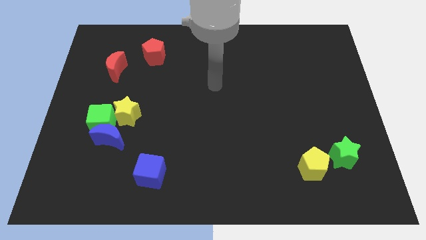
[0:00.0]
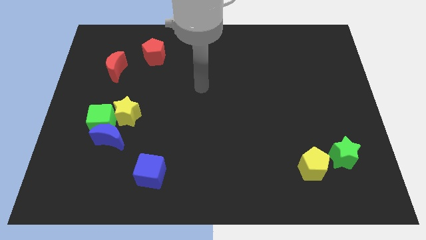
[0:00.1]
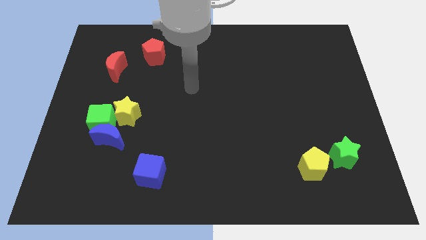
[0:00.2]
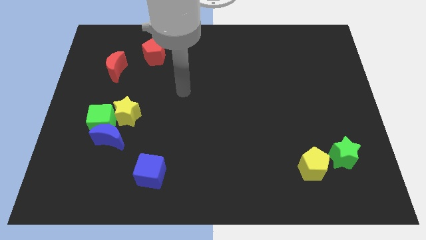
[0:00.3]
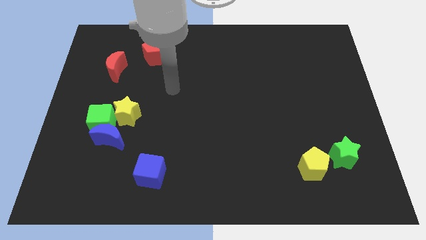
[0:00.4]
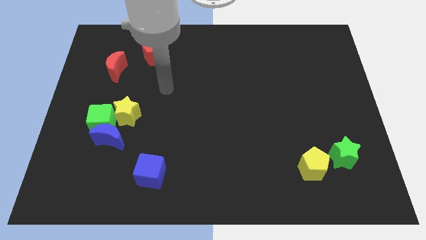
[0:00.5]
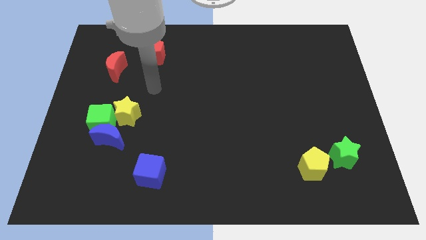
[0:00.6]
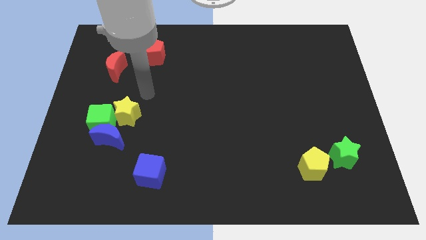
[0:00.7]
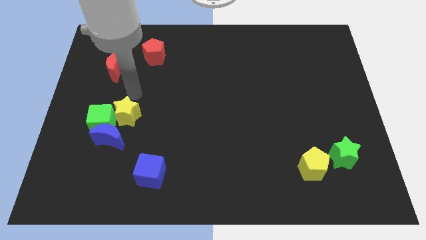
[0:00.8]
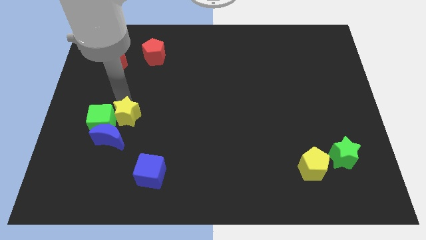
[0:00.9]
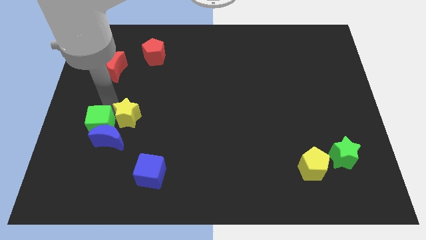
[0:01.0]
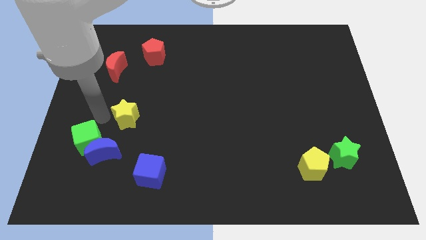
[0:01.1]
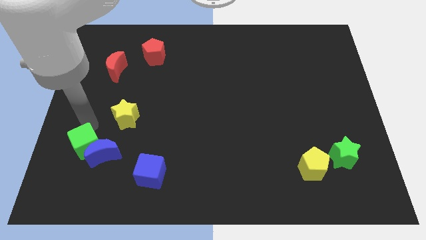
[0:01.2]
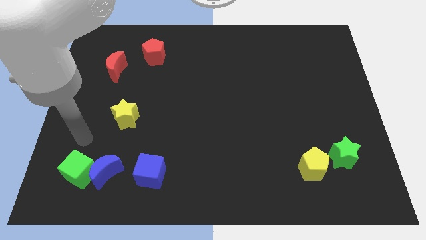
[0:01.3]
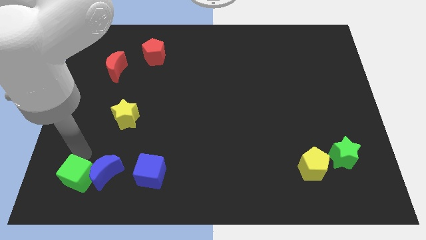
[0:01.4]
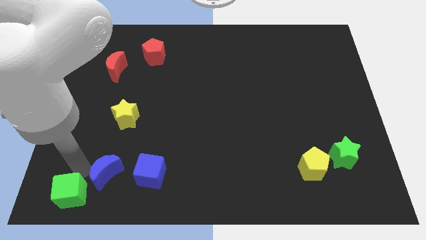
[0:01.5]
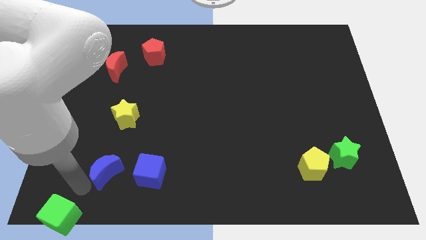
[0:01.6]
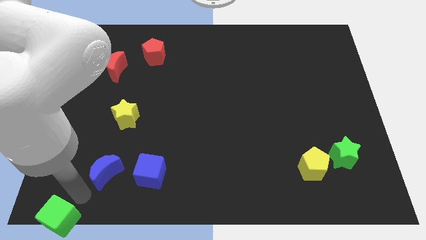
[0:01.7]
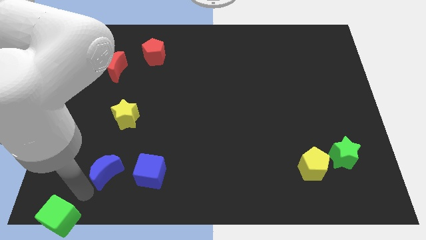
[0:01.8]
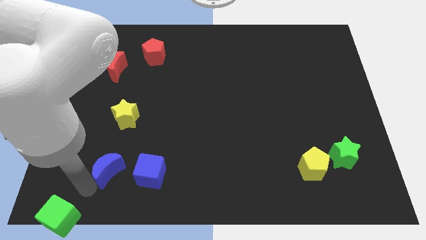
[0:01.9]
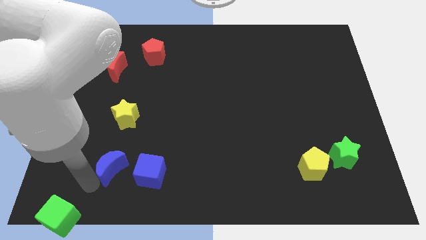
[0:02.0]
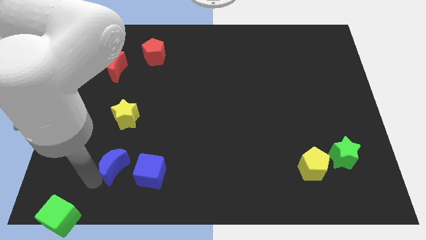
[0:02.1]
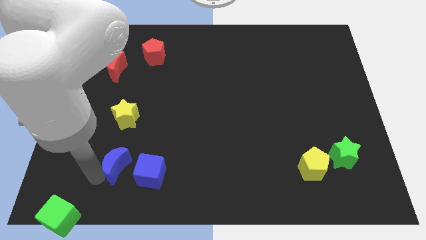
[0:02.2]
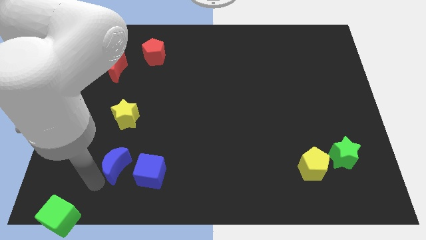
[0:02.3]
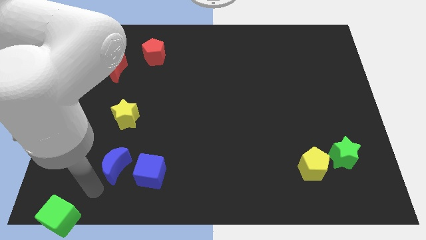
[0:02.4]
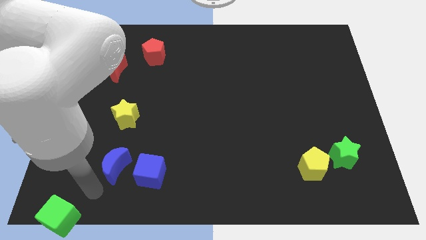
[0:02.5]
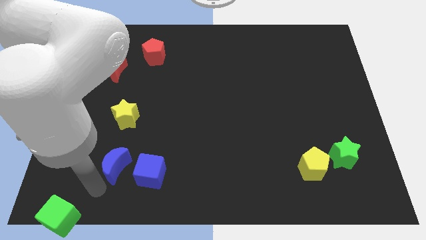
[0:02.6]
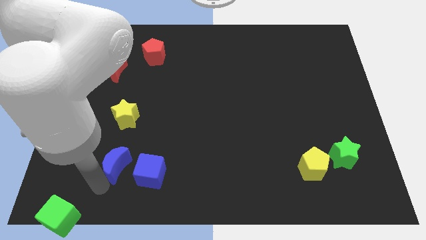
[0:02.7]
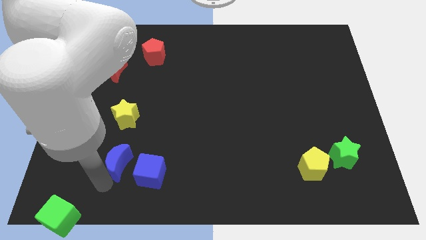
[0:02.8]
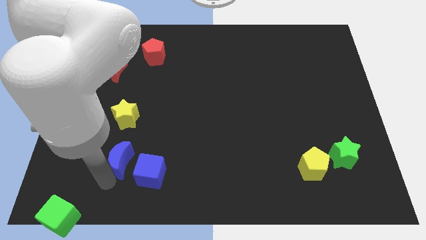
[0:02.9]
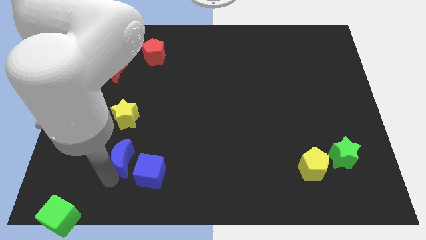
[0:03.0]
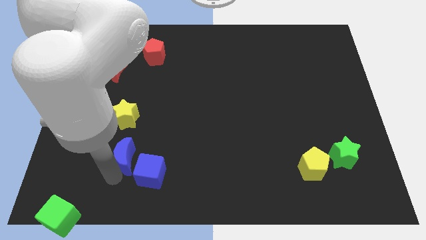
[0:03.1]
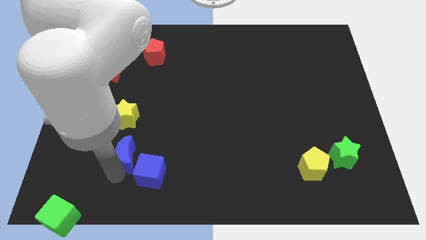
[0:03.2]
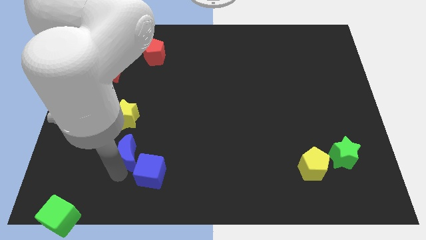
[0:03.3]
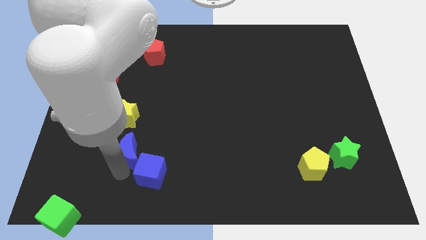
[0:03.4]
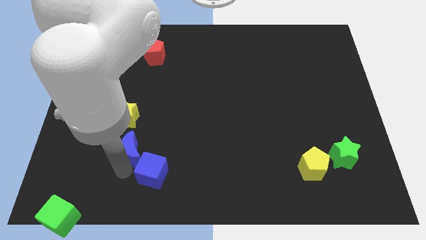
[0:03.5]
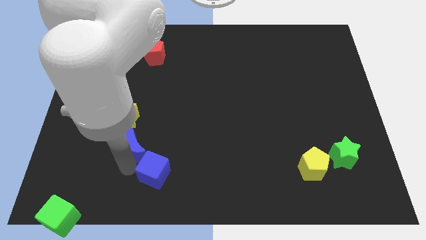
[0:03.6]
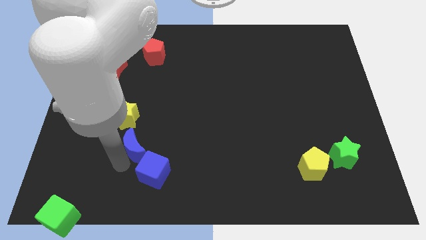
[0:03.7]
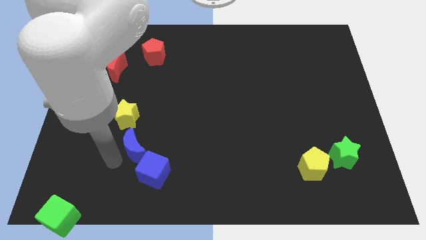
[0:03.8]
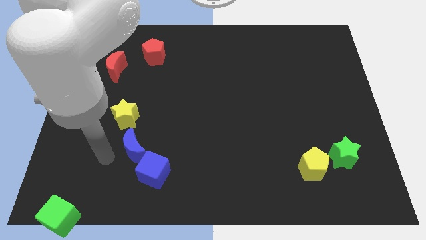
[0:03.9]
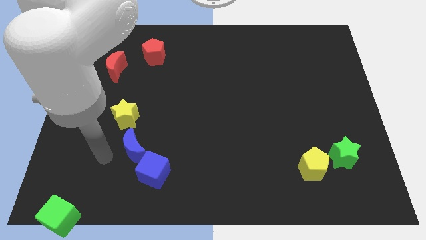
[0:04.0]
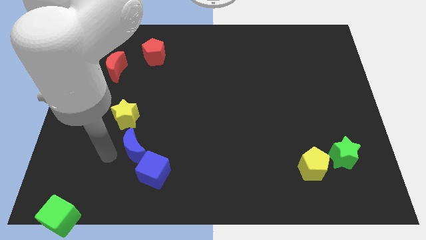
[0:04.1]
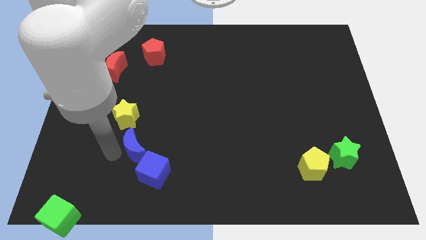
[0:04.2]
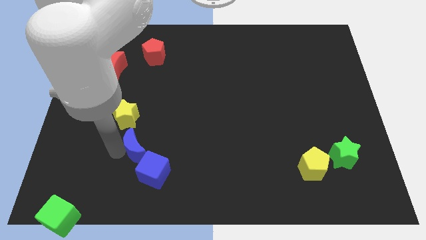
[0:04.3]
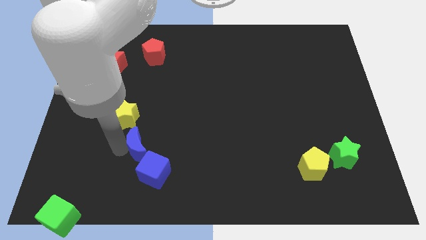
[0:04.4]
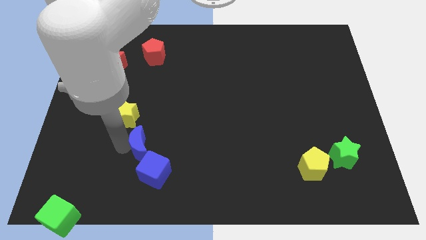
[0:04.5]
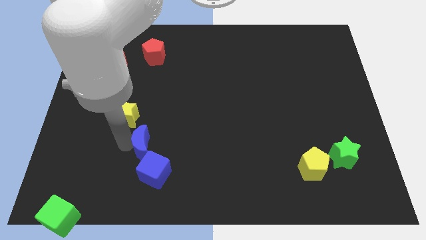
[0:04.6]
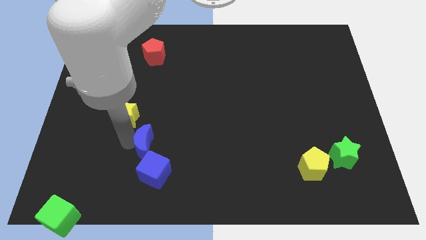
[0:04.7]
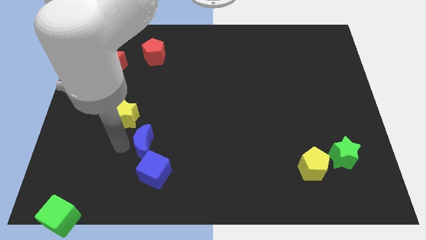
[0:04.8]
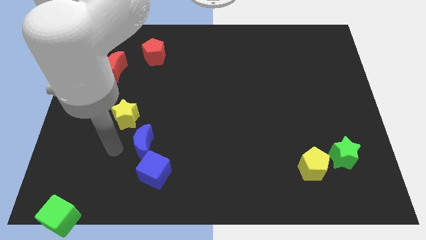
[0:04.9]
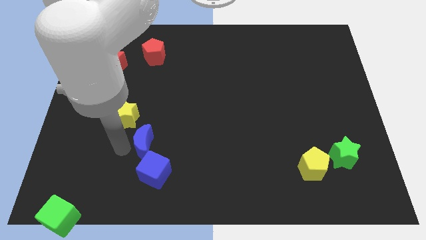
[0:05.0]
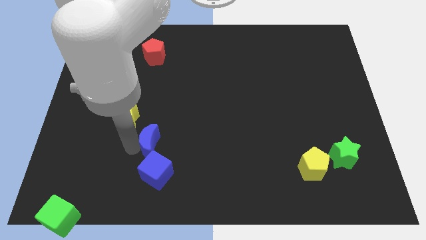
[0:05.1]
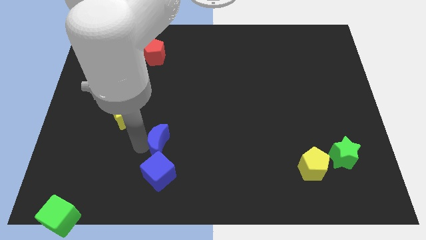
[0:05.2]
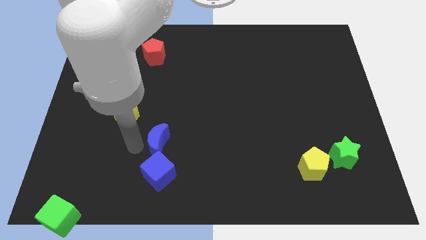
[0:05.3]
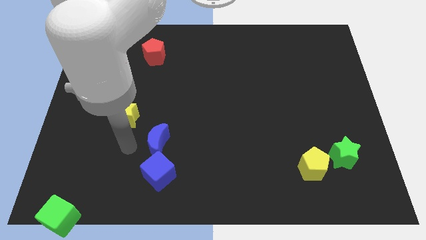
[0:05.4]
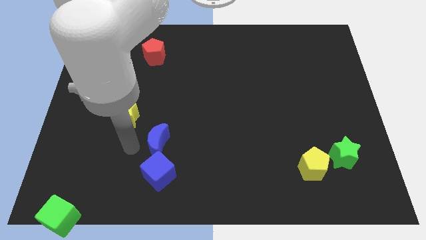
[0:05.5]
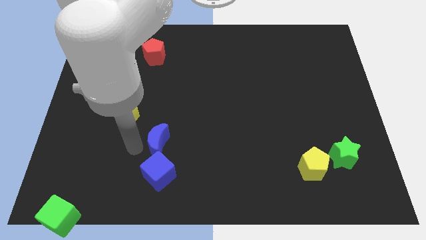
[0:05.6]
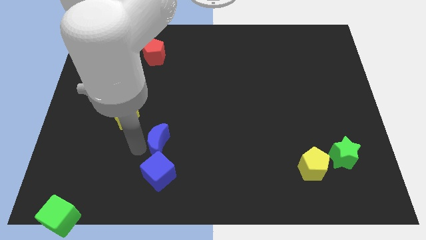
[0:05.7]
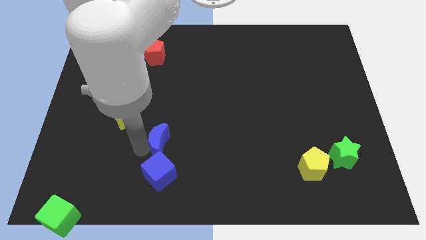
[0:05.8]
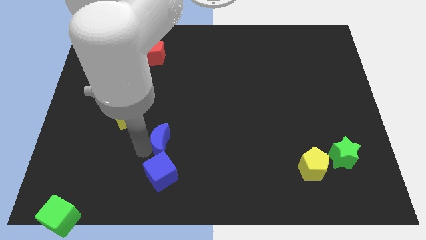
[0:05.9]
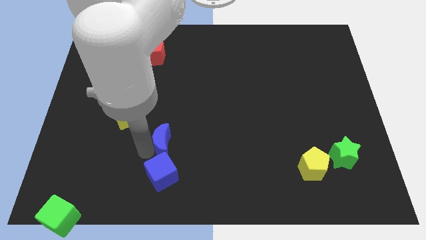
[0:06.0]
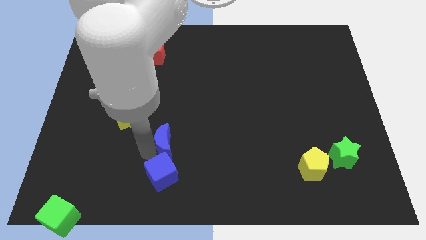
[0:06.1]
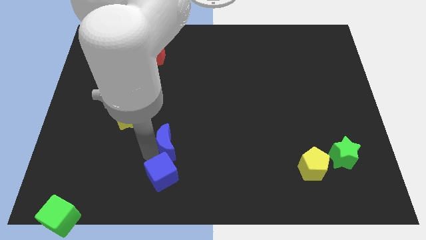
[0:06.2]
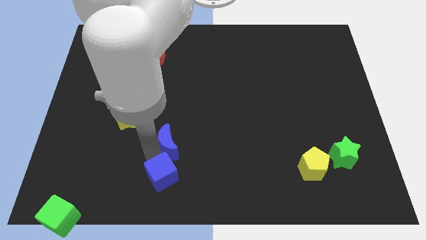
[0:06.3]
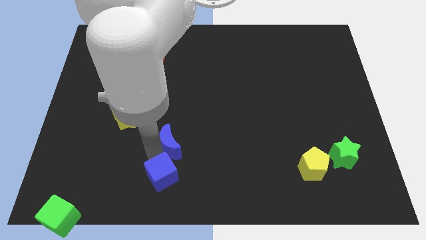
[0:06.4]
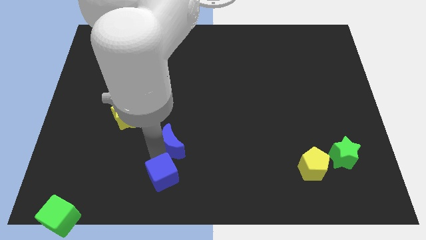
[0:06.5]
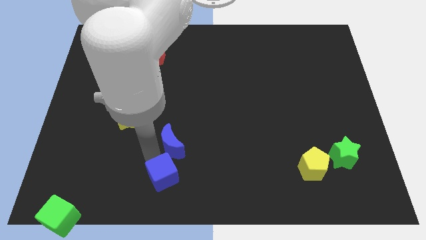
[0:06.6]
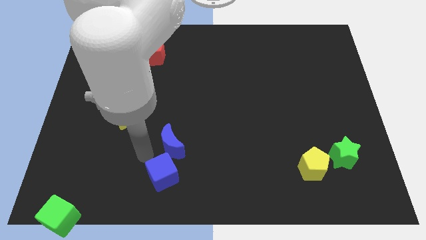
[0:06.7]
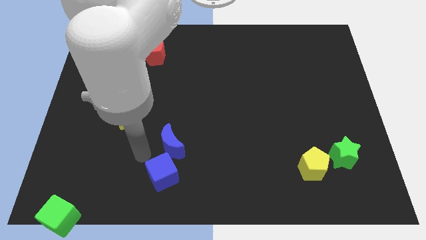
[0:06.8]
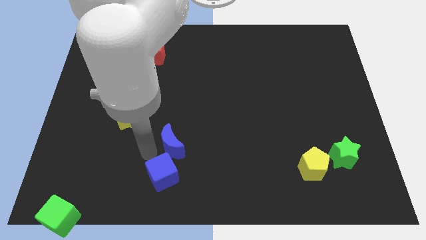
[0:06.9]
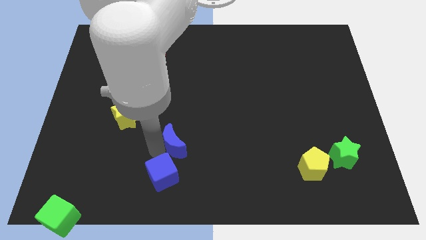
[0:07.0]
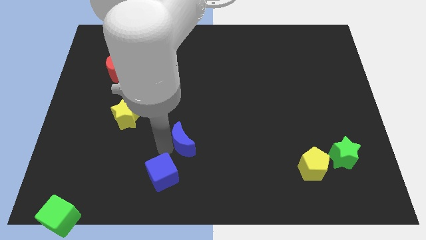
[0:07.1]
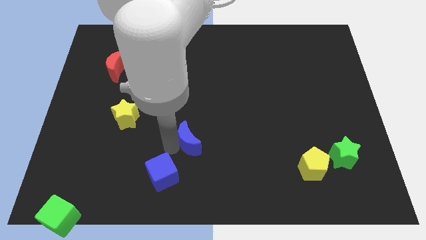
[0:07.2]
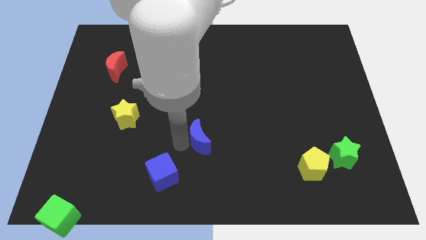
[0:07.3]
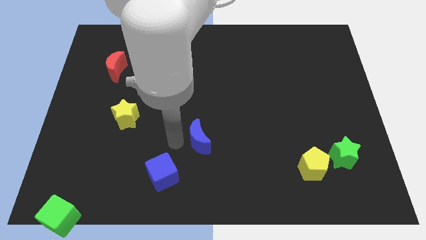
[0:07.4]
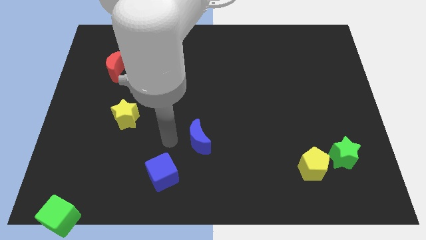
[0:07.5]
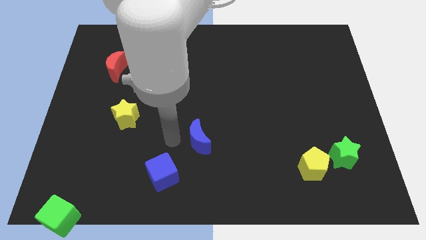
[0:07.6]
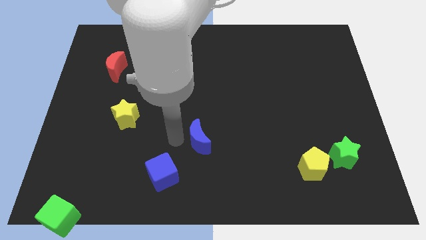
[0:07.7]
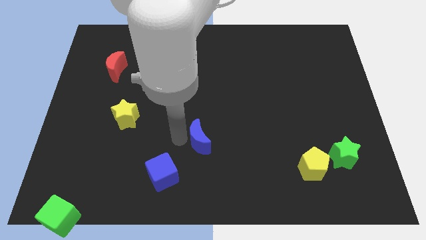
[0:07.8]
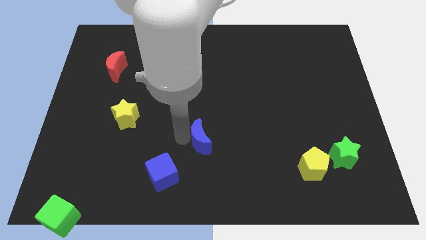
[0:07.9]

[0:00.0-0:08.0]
push the blue moon to the right
